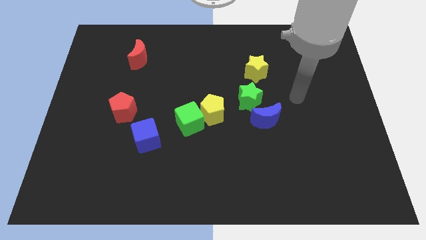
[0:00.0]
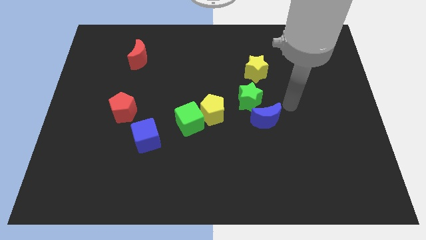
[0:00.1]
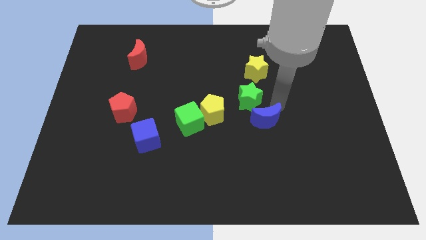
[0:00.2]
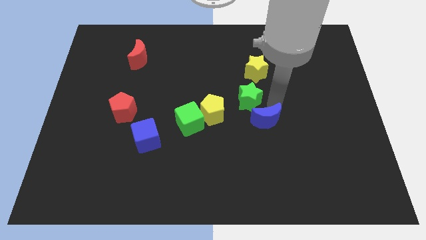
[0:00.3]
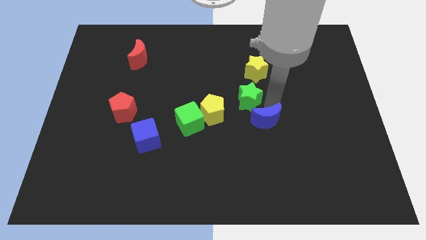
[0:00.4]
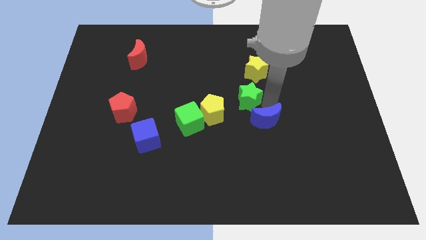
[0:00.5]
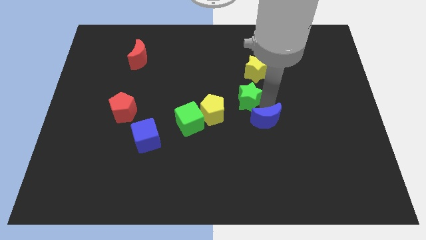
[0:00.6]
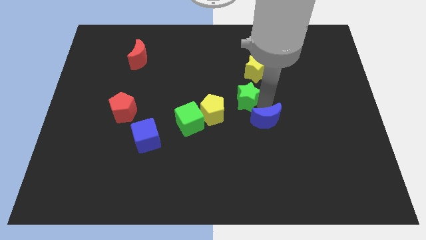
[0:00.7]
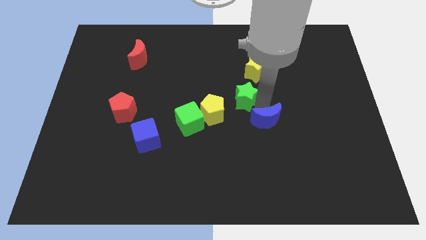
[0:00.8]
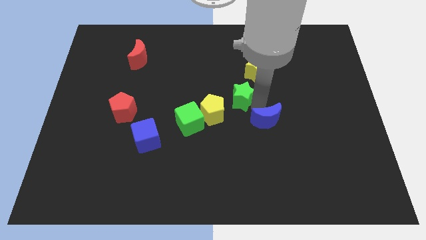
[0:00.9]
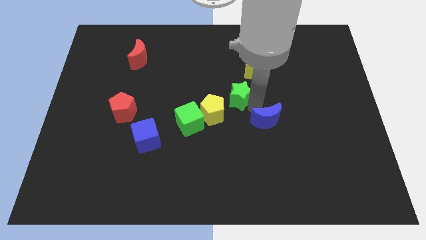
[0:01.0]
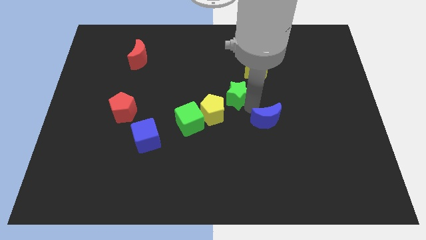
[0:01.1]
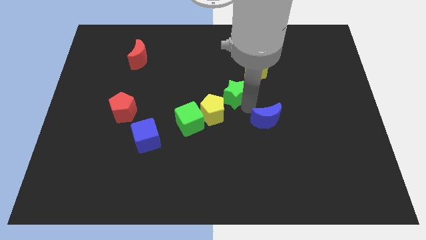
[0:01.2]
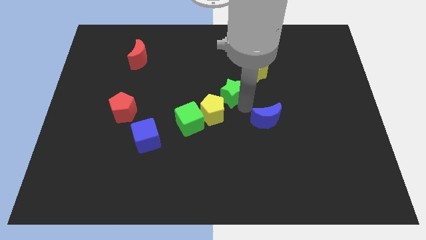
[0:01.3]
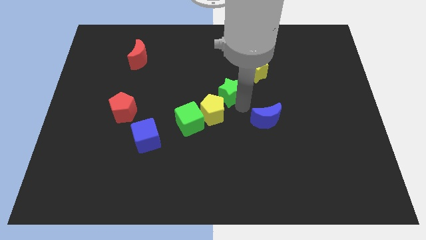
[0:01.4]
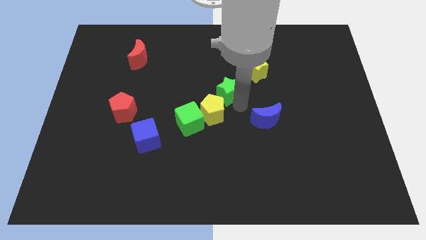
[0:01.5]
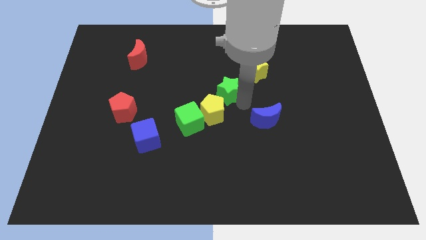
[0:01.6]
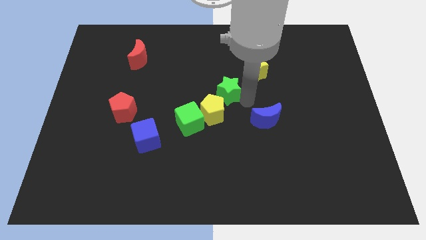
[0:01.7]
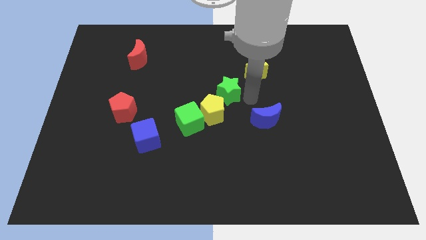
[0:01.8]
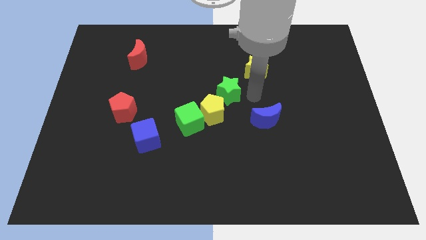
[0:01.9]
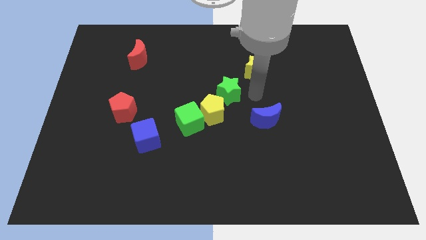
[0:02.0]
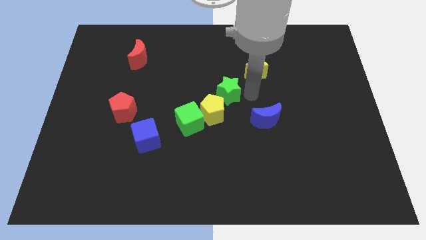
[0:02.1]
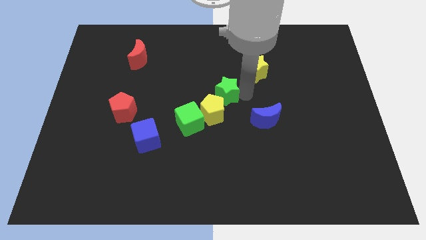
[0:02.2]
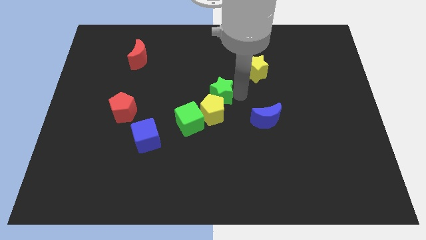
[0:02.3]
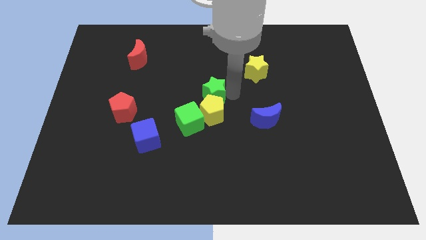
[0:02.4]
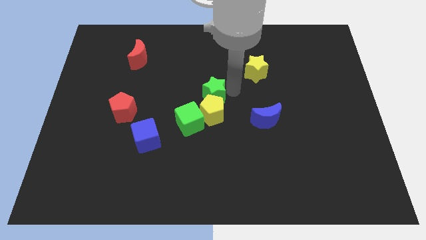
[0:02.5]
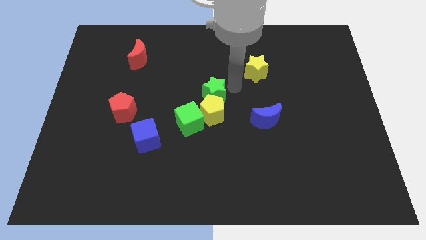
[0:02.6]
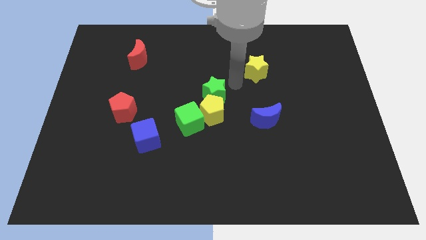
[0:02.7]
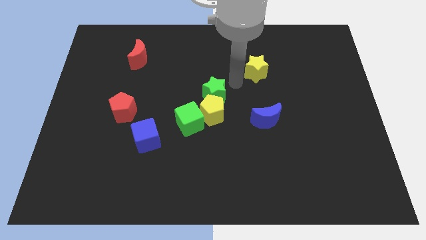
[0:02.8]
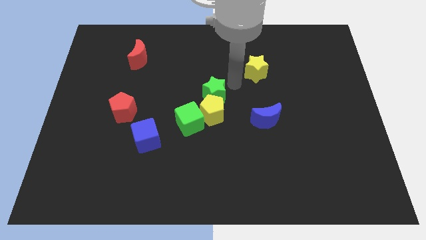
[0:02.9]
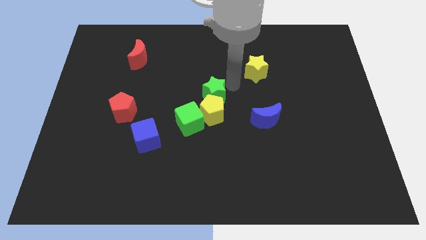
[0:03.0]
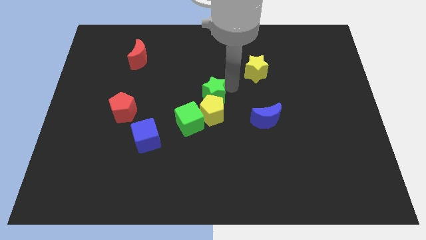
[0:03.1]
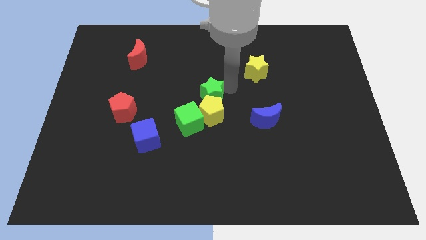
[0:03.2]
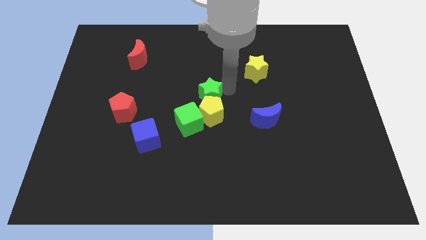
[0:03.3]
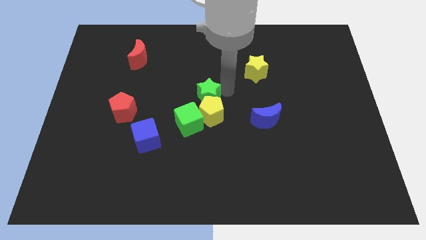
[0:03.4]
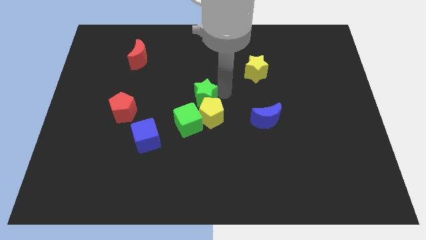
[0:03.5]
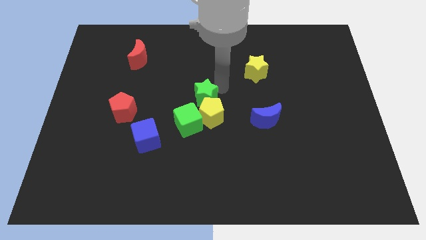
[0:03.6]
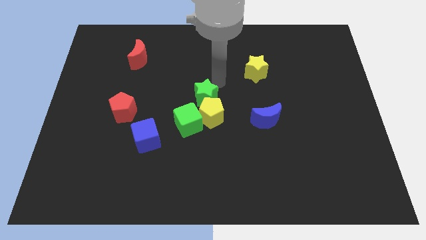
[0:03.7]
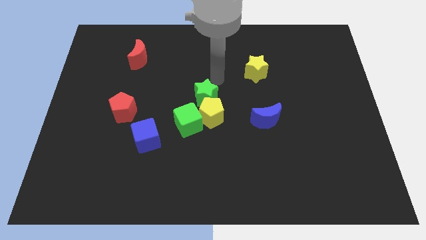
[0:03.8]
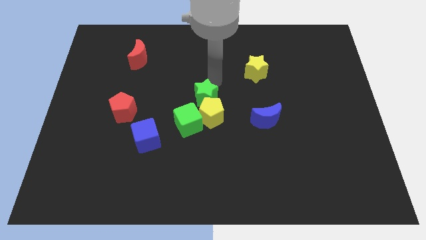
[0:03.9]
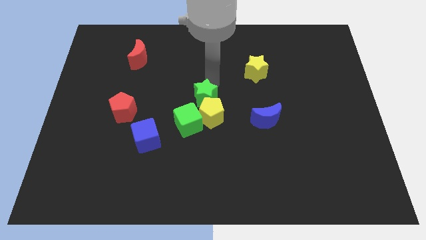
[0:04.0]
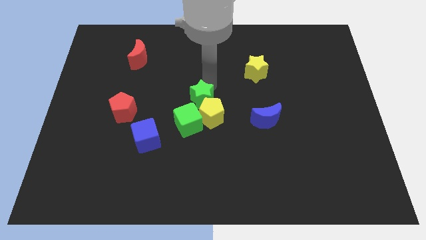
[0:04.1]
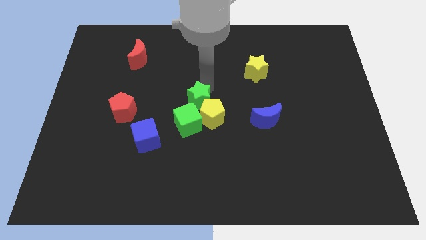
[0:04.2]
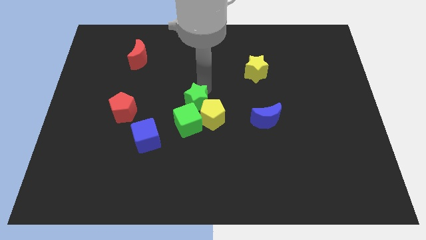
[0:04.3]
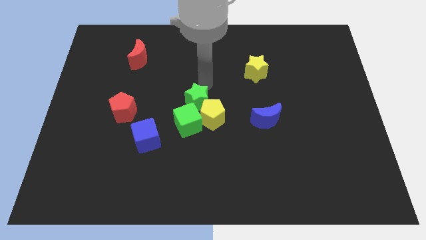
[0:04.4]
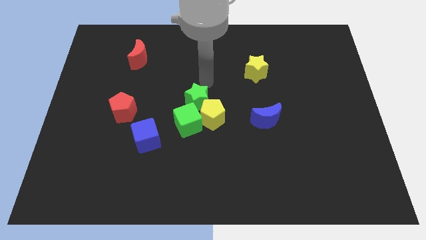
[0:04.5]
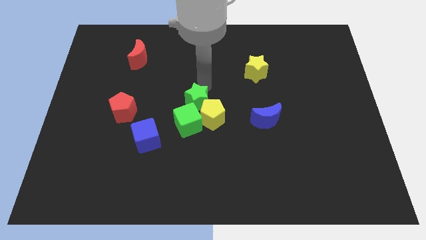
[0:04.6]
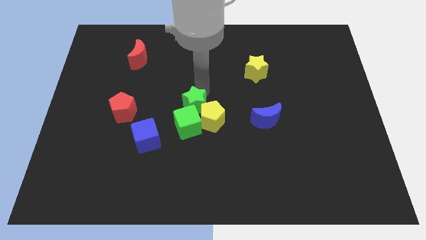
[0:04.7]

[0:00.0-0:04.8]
push the green star close to the green cube

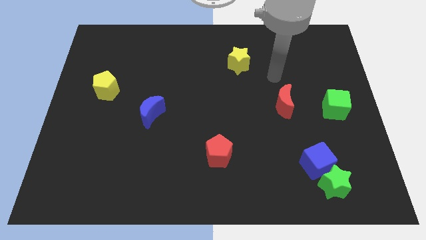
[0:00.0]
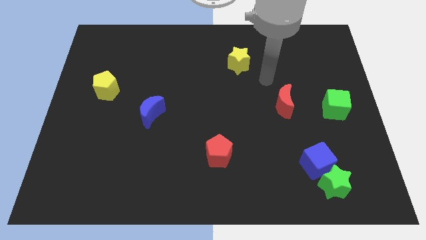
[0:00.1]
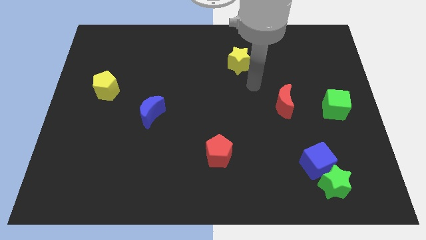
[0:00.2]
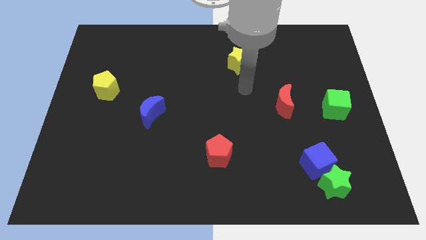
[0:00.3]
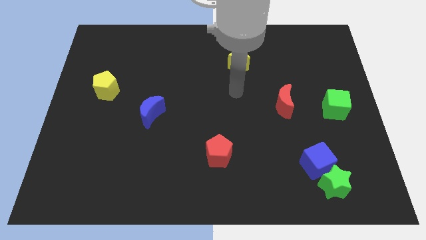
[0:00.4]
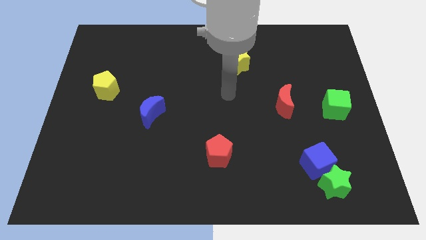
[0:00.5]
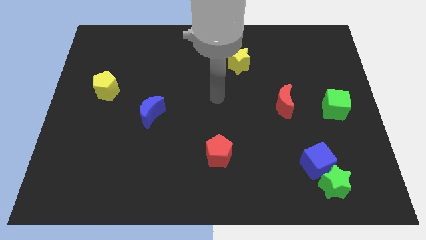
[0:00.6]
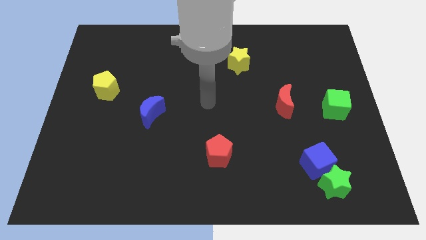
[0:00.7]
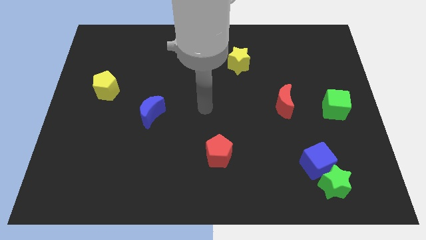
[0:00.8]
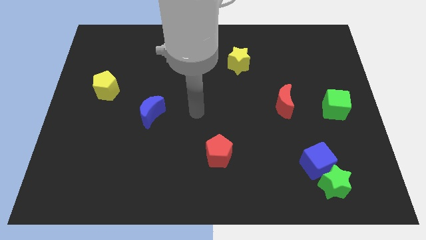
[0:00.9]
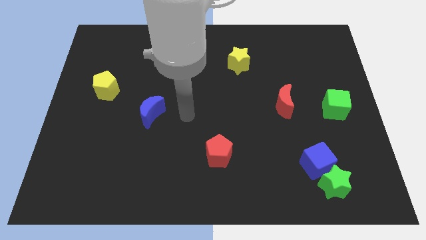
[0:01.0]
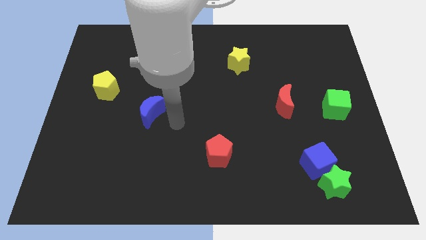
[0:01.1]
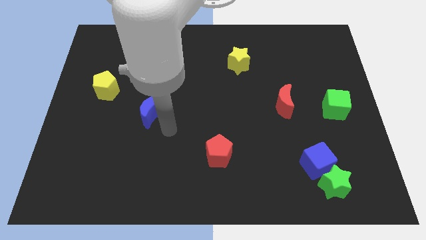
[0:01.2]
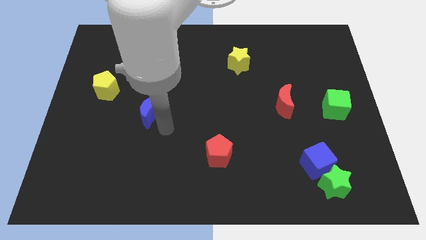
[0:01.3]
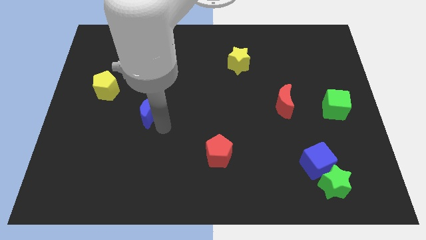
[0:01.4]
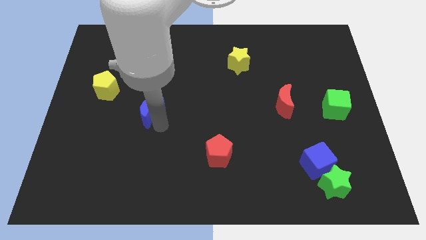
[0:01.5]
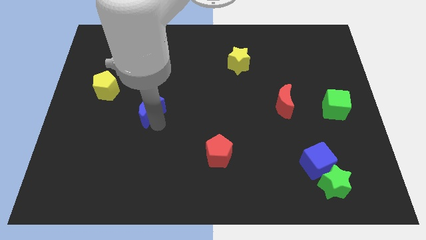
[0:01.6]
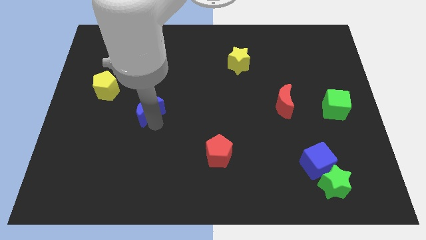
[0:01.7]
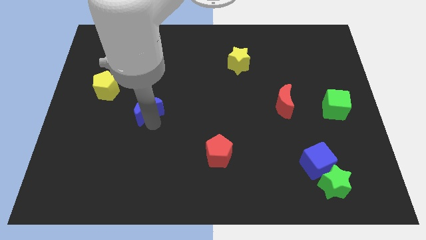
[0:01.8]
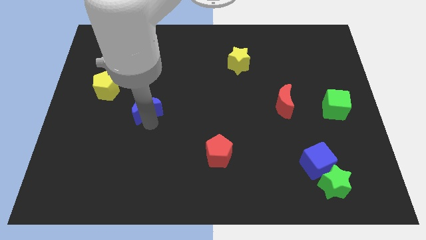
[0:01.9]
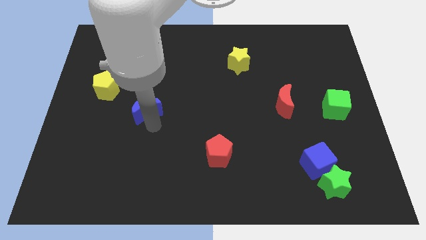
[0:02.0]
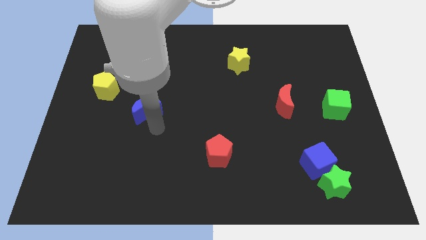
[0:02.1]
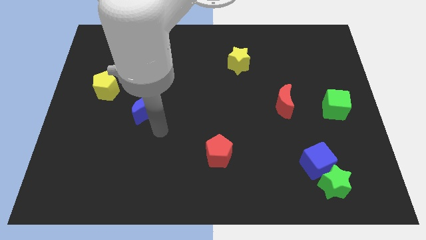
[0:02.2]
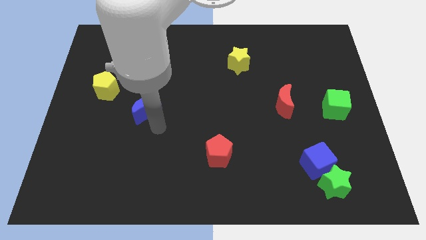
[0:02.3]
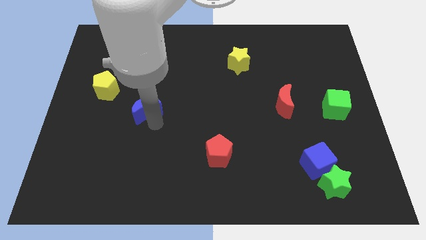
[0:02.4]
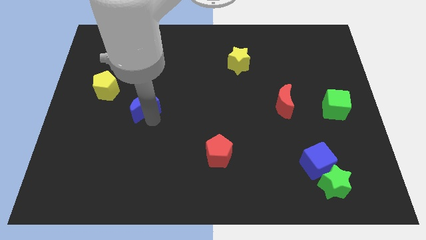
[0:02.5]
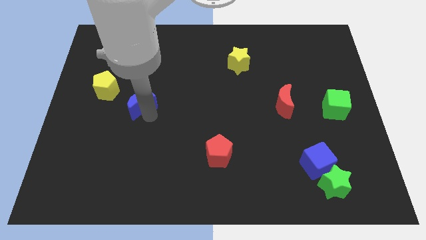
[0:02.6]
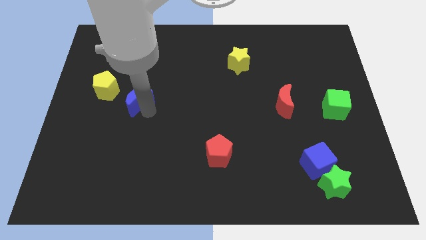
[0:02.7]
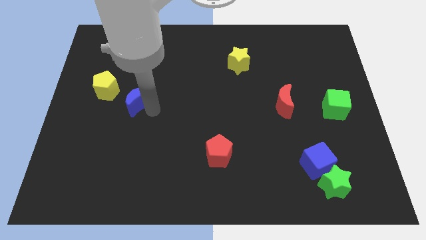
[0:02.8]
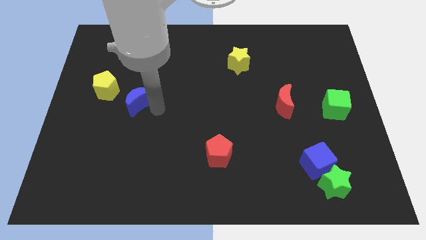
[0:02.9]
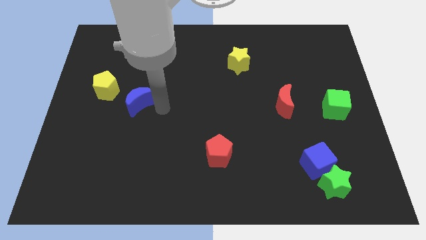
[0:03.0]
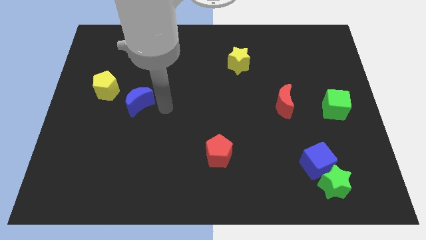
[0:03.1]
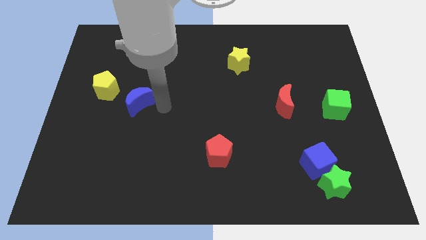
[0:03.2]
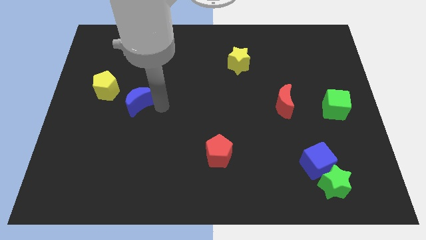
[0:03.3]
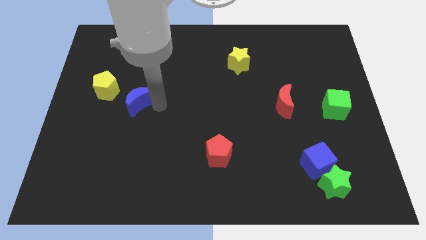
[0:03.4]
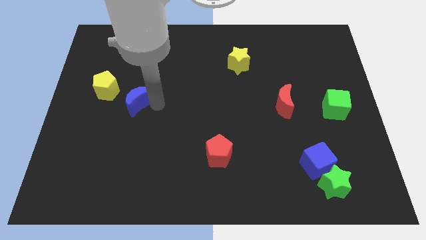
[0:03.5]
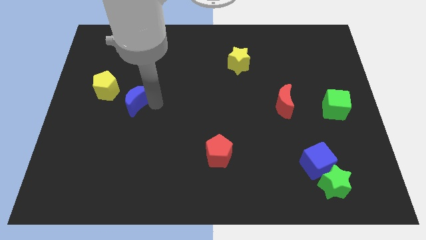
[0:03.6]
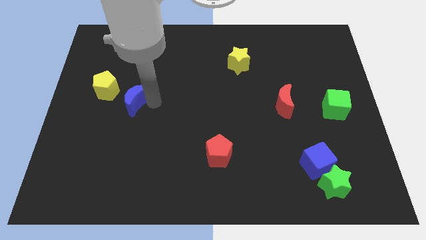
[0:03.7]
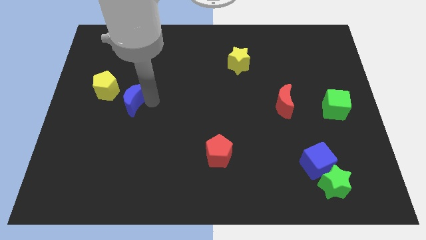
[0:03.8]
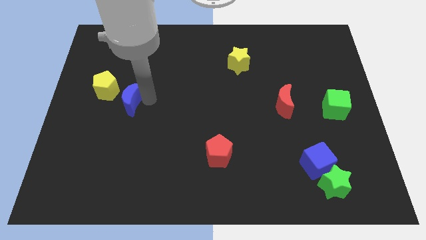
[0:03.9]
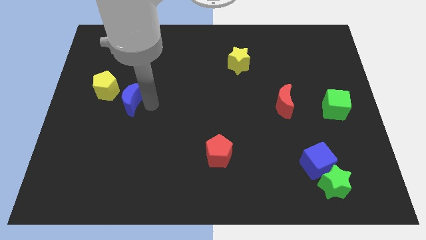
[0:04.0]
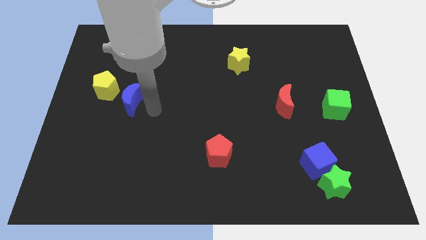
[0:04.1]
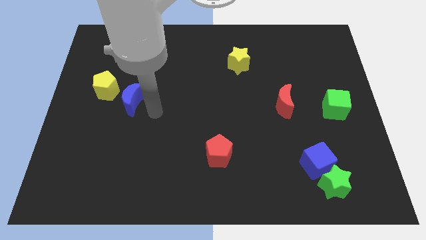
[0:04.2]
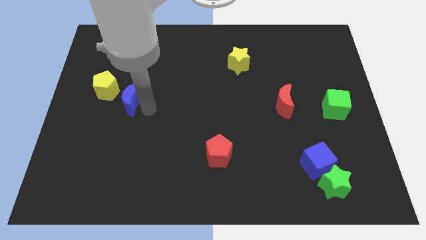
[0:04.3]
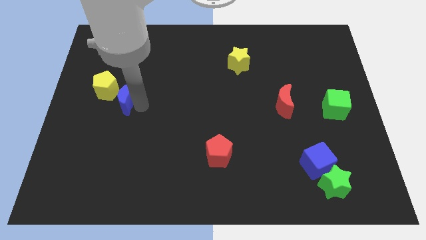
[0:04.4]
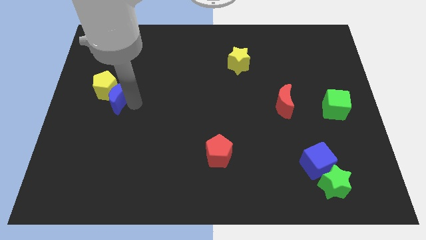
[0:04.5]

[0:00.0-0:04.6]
slide the blue moon next to the yellow pentagon
